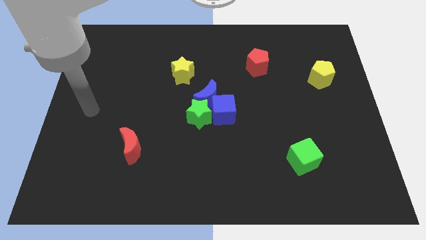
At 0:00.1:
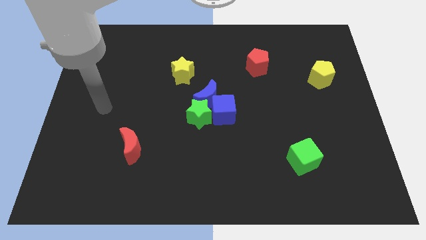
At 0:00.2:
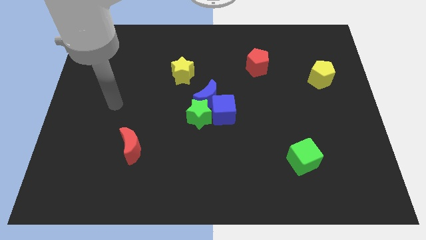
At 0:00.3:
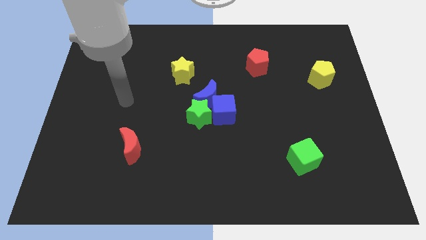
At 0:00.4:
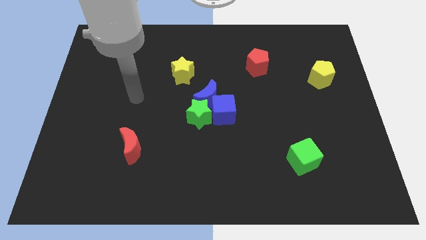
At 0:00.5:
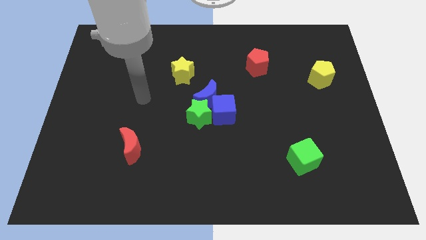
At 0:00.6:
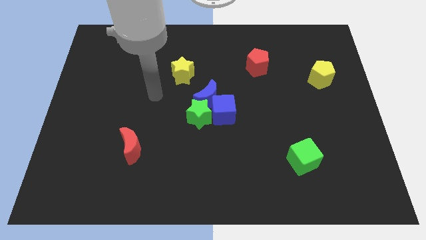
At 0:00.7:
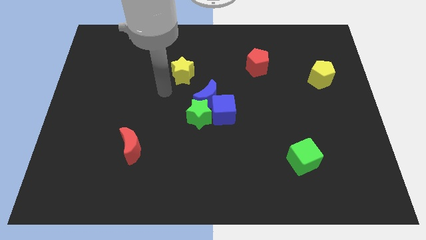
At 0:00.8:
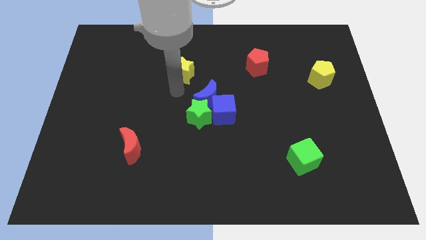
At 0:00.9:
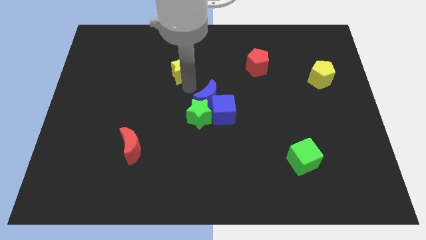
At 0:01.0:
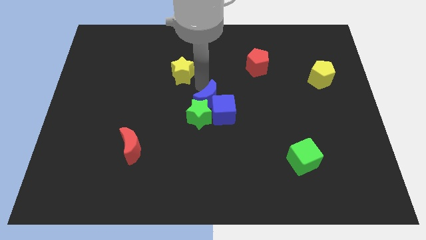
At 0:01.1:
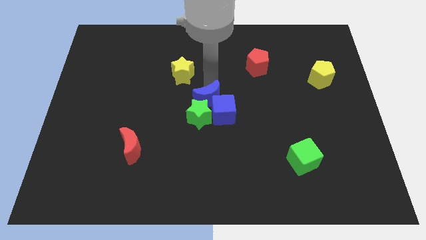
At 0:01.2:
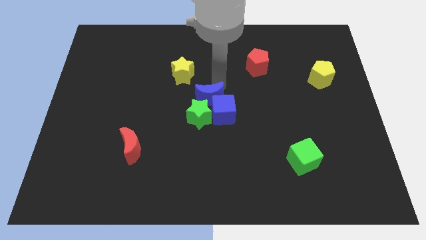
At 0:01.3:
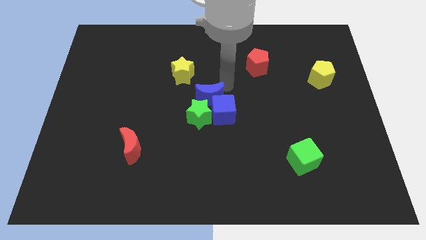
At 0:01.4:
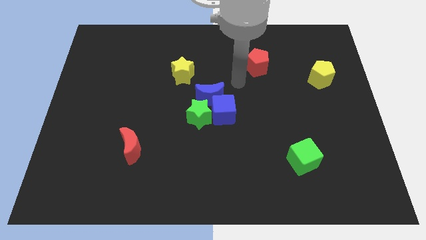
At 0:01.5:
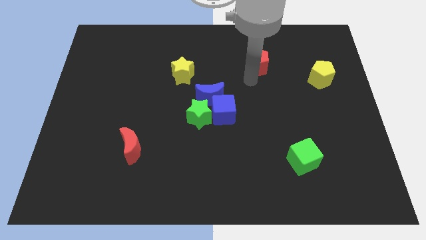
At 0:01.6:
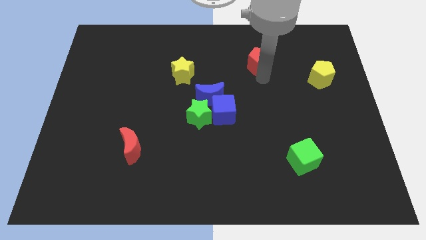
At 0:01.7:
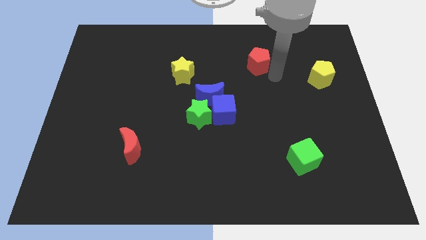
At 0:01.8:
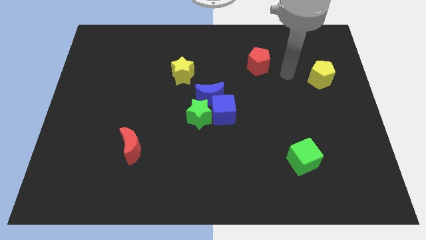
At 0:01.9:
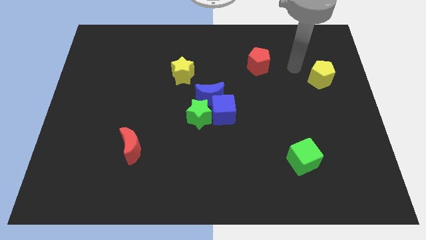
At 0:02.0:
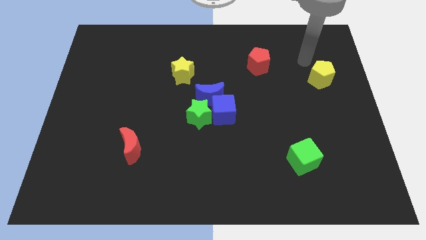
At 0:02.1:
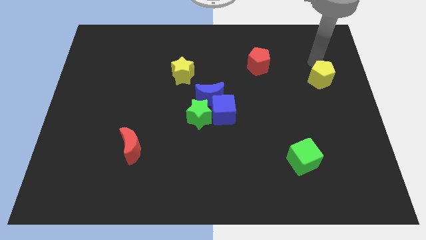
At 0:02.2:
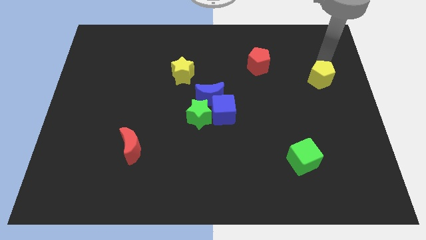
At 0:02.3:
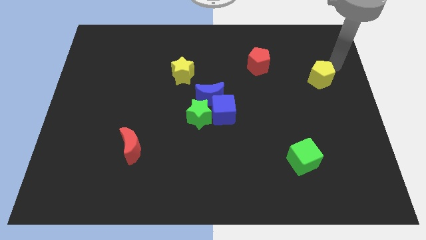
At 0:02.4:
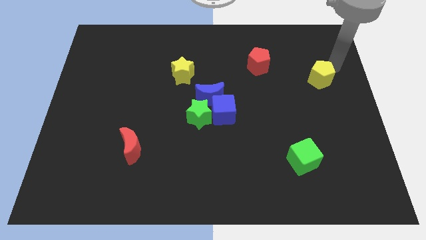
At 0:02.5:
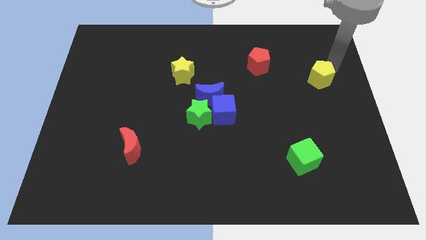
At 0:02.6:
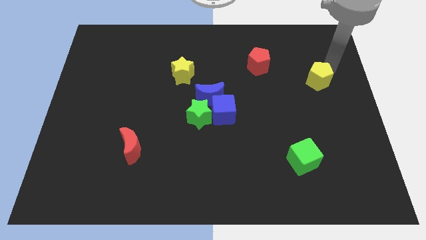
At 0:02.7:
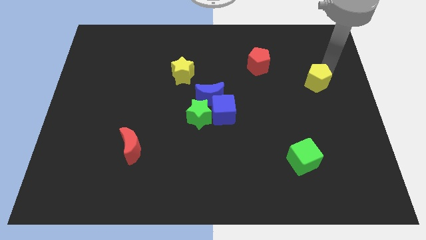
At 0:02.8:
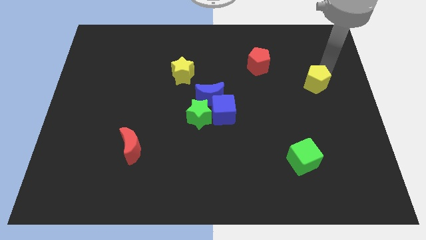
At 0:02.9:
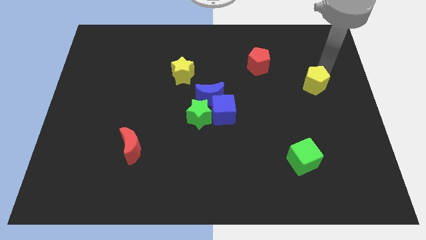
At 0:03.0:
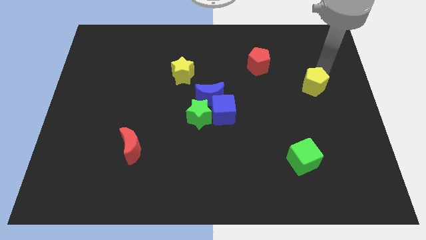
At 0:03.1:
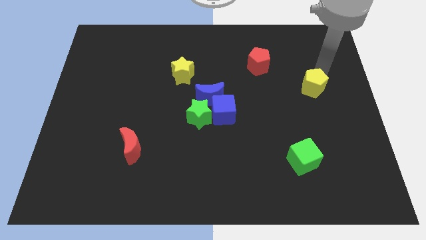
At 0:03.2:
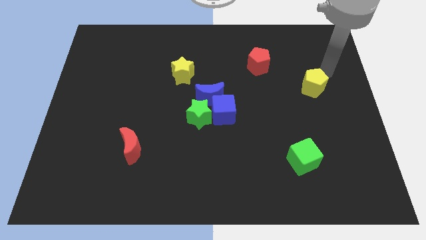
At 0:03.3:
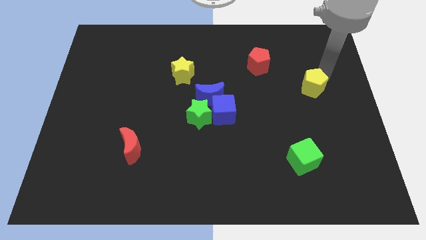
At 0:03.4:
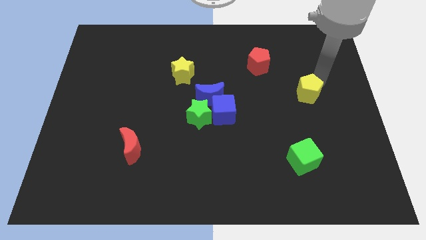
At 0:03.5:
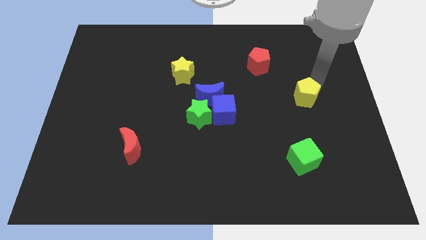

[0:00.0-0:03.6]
slightly push the yellow pentagon diagonally downwards and to the left

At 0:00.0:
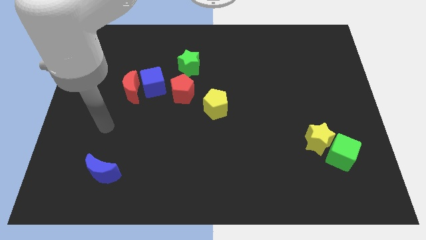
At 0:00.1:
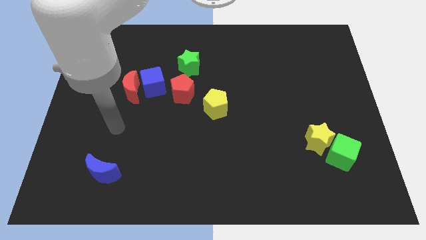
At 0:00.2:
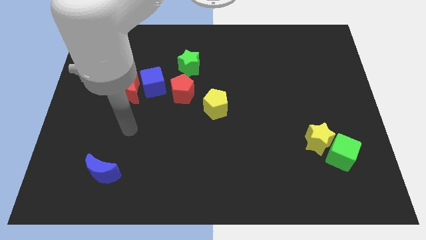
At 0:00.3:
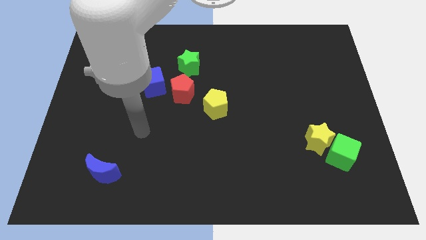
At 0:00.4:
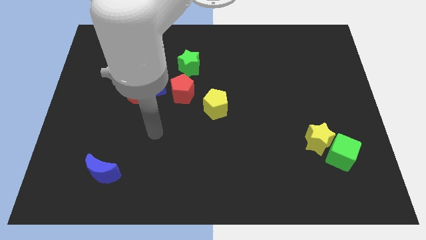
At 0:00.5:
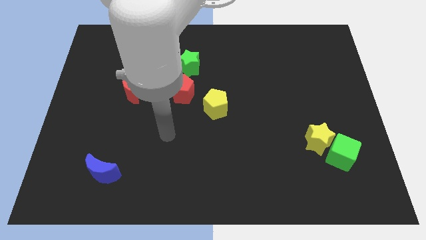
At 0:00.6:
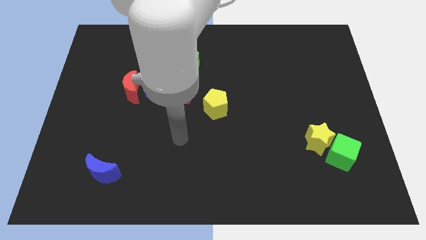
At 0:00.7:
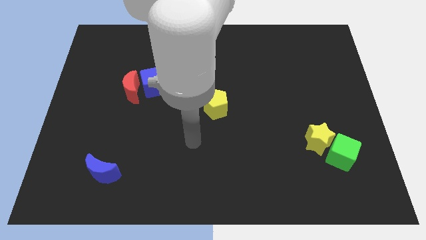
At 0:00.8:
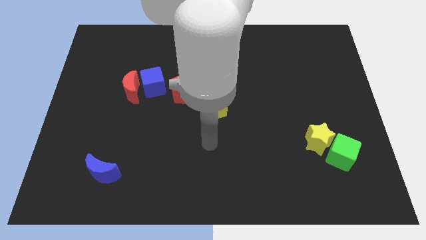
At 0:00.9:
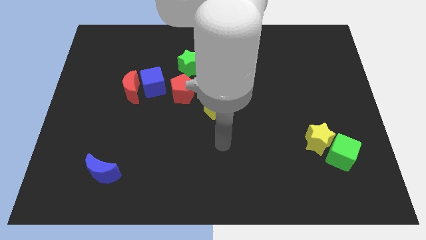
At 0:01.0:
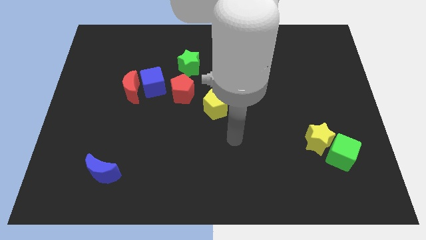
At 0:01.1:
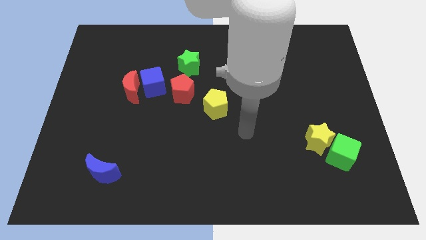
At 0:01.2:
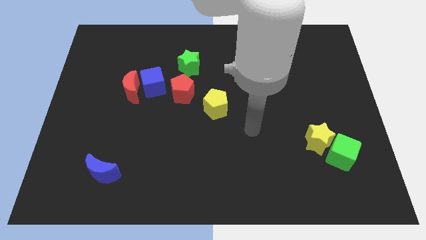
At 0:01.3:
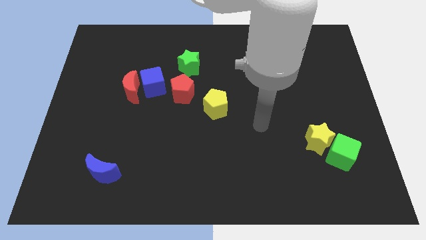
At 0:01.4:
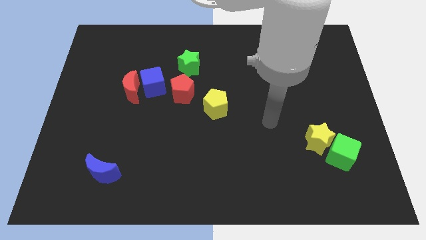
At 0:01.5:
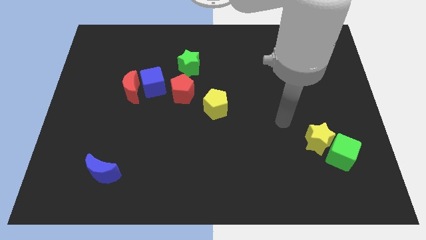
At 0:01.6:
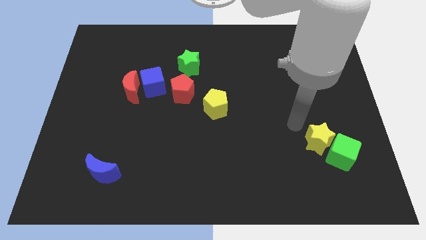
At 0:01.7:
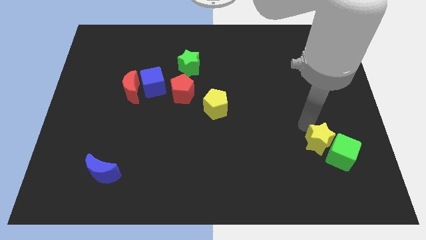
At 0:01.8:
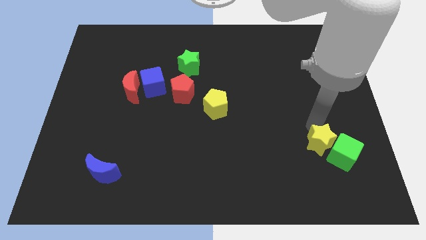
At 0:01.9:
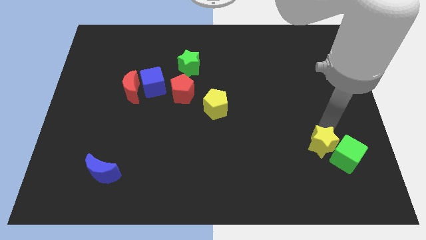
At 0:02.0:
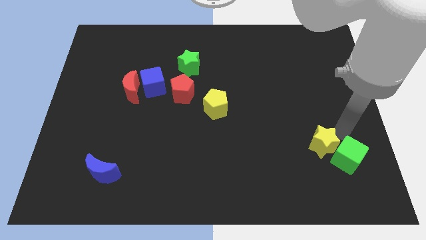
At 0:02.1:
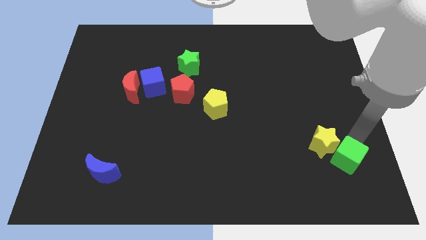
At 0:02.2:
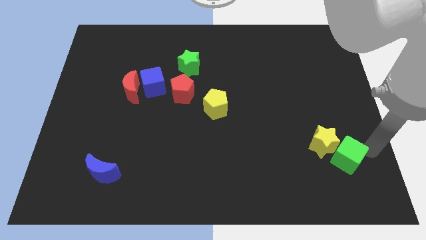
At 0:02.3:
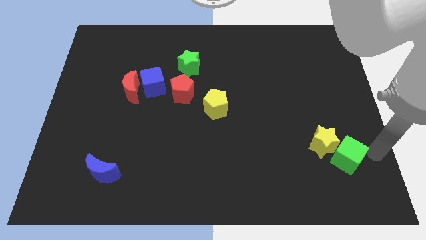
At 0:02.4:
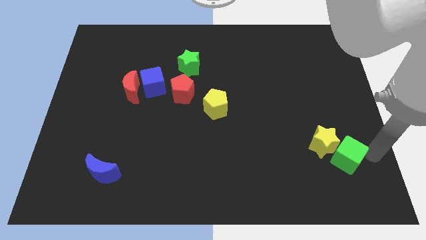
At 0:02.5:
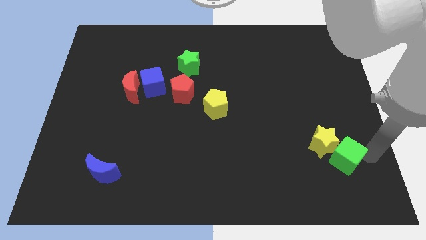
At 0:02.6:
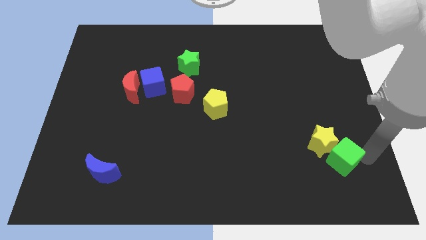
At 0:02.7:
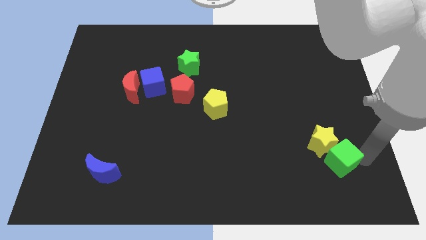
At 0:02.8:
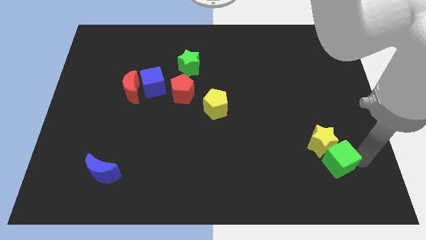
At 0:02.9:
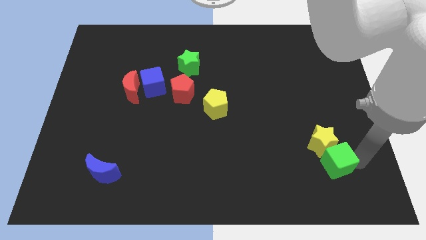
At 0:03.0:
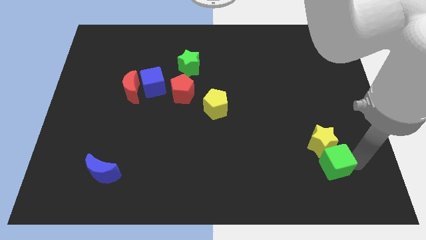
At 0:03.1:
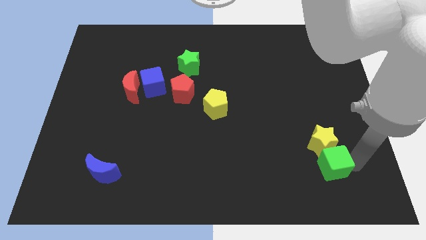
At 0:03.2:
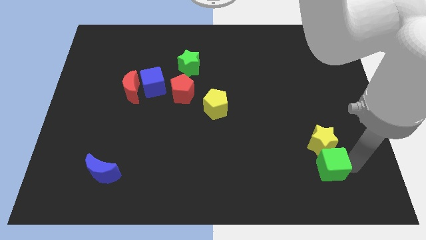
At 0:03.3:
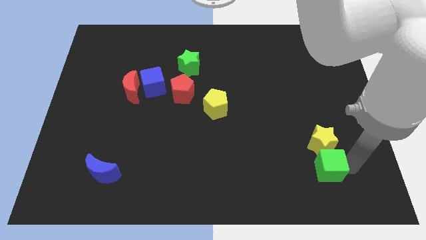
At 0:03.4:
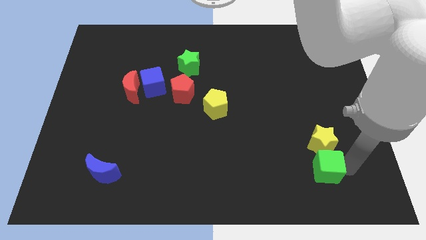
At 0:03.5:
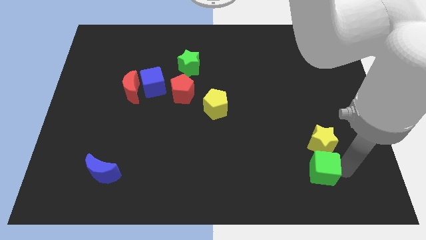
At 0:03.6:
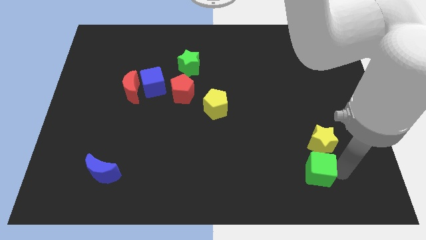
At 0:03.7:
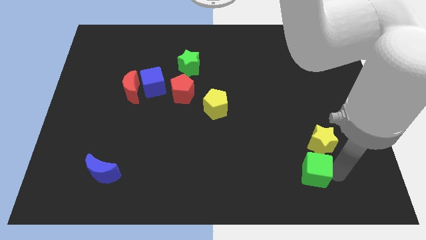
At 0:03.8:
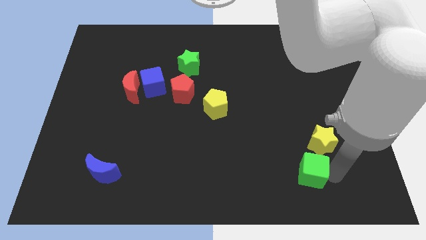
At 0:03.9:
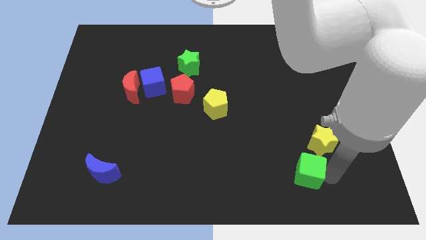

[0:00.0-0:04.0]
slightly push the green cube to the left

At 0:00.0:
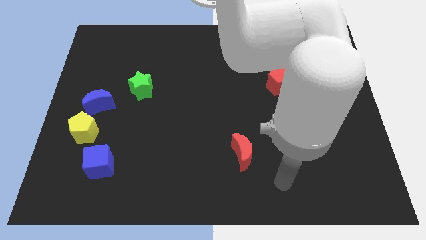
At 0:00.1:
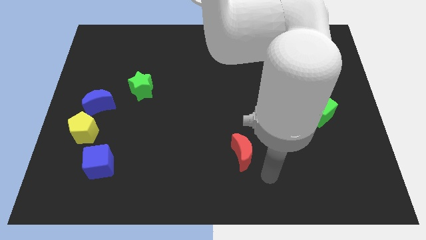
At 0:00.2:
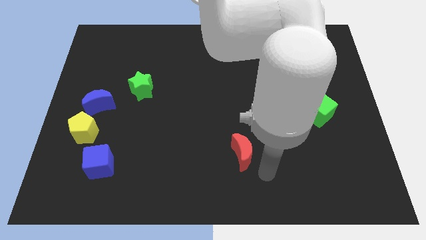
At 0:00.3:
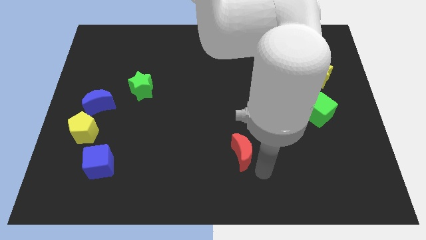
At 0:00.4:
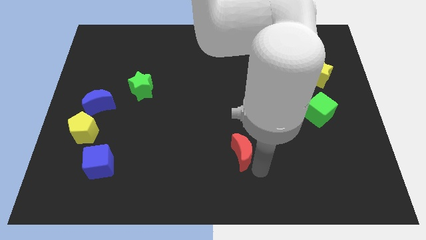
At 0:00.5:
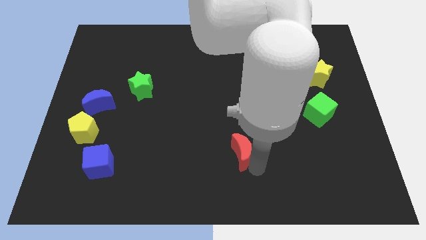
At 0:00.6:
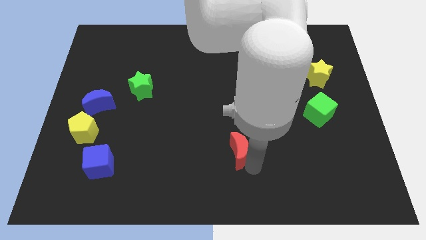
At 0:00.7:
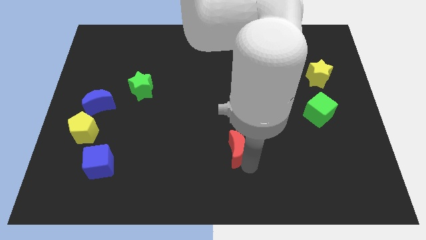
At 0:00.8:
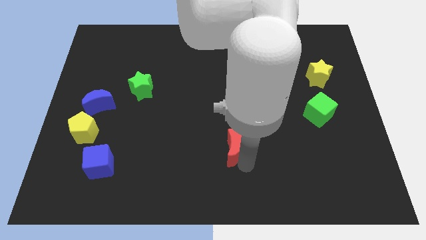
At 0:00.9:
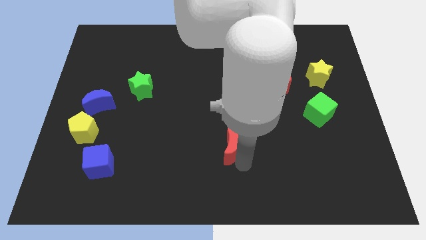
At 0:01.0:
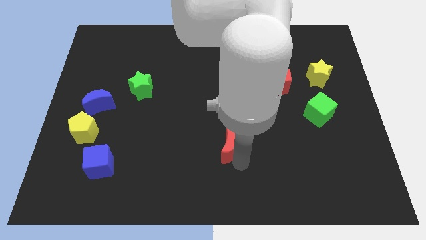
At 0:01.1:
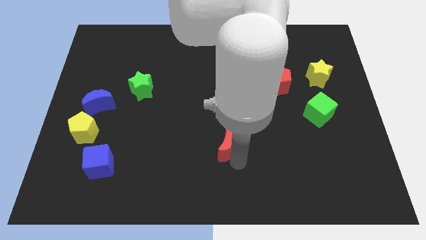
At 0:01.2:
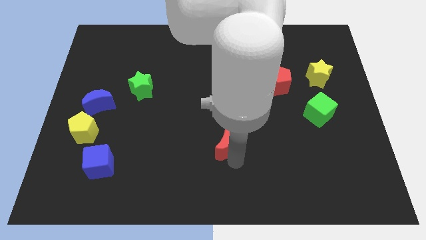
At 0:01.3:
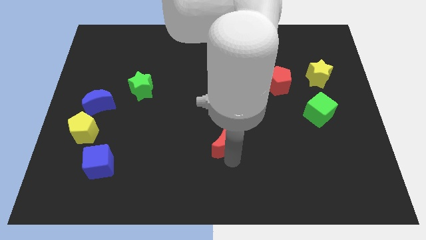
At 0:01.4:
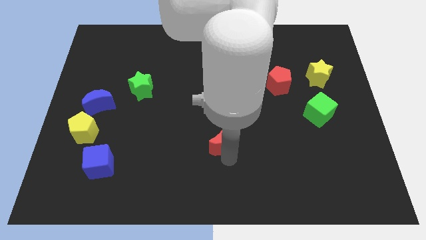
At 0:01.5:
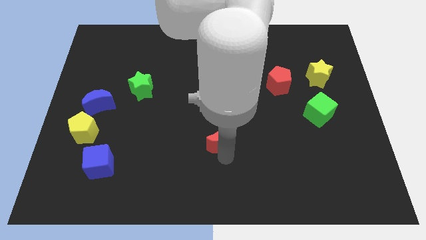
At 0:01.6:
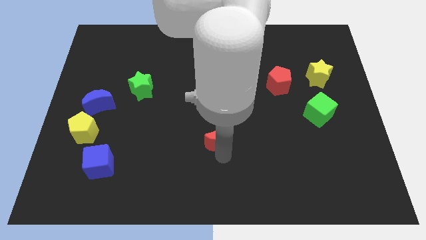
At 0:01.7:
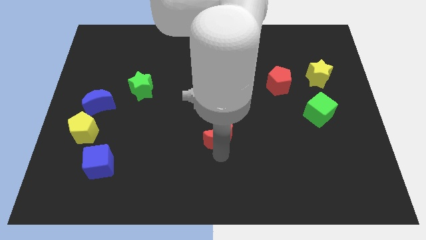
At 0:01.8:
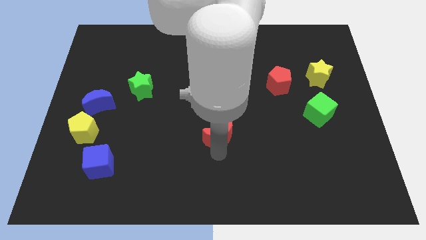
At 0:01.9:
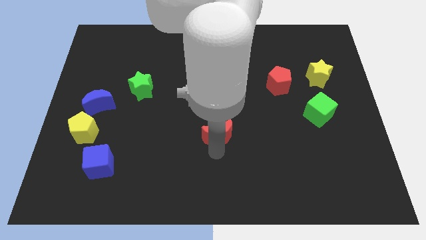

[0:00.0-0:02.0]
slide the red moon a little bit up and then to the left
